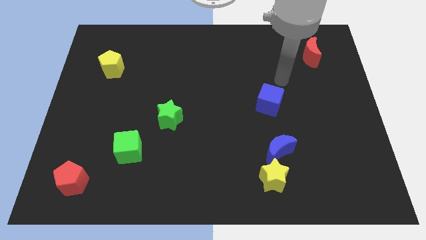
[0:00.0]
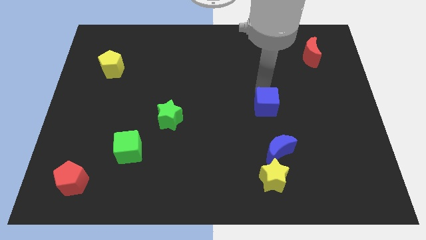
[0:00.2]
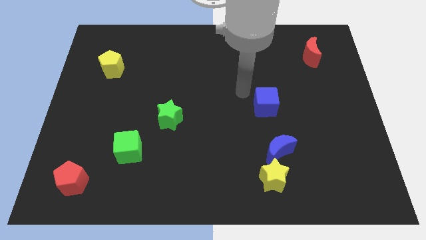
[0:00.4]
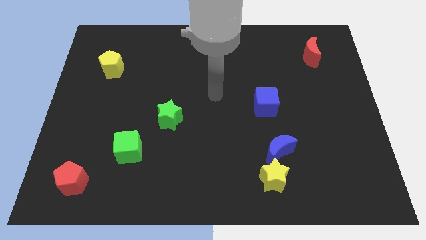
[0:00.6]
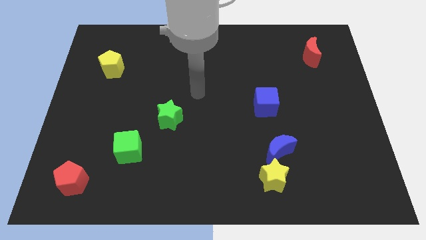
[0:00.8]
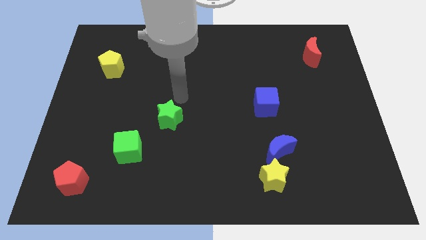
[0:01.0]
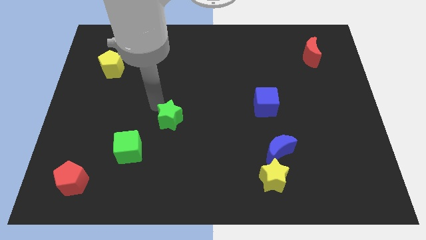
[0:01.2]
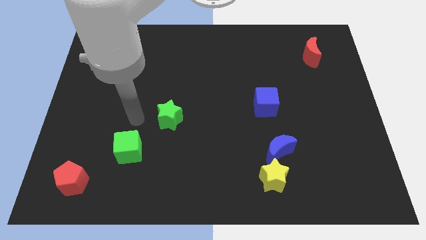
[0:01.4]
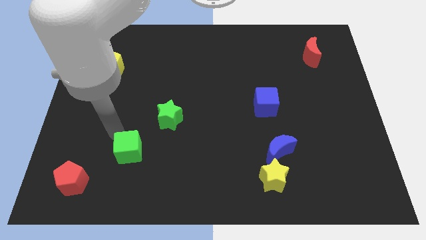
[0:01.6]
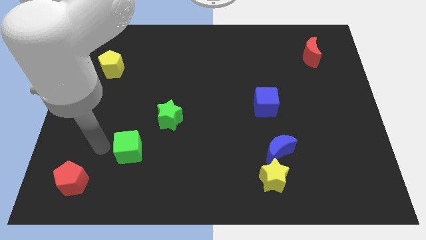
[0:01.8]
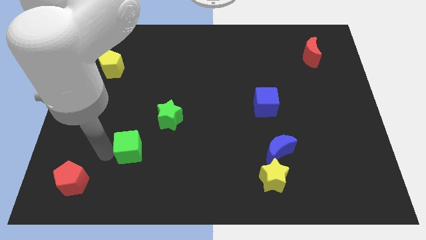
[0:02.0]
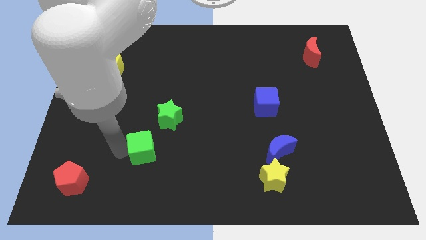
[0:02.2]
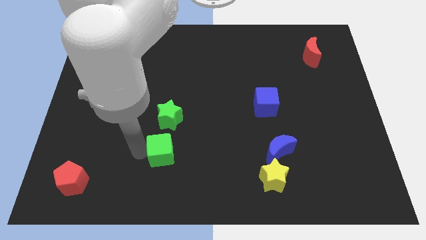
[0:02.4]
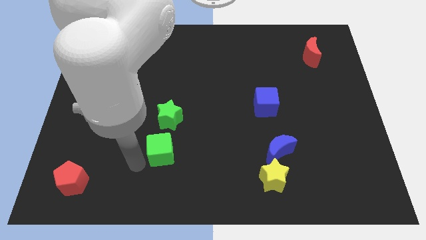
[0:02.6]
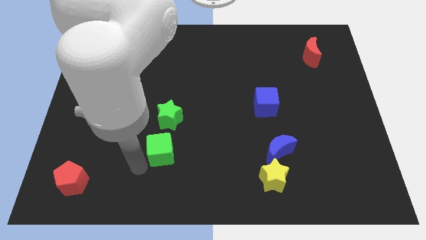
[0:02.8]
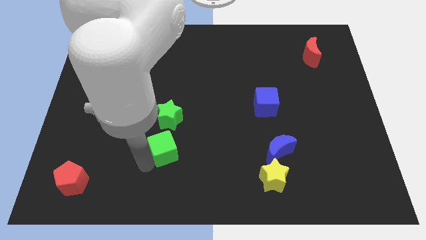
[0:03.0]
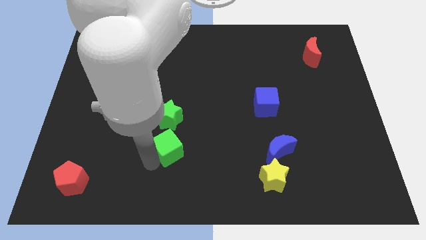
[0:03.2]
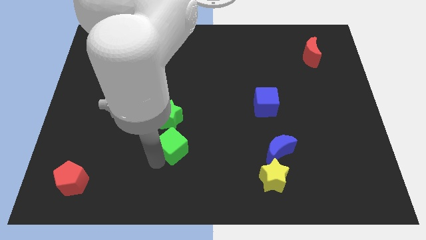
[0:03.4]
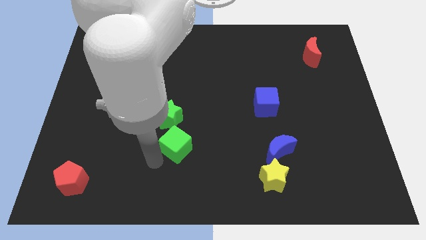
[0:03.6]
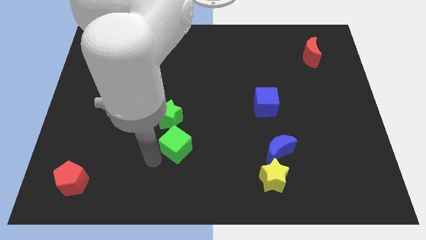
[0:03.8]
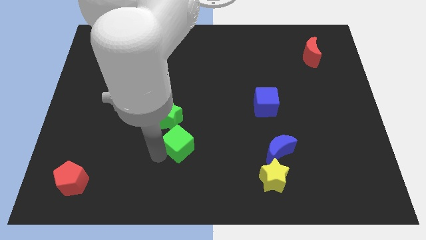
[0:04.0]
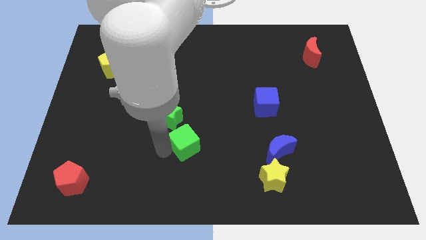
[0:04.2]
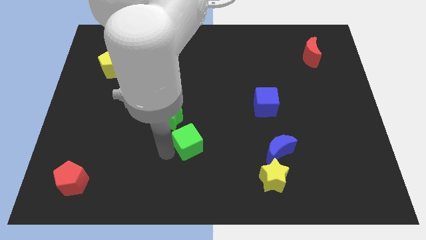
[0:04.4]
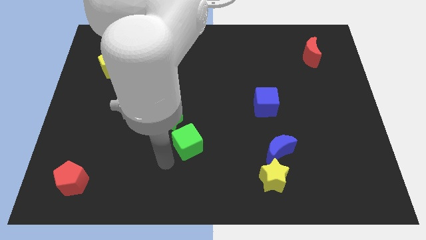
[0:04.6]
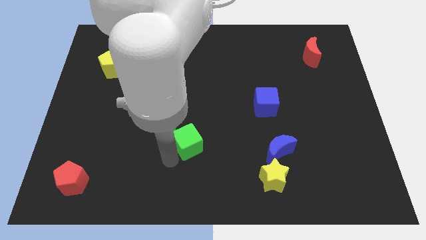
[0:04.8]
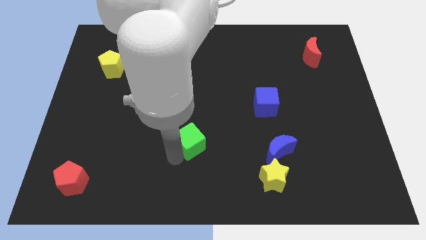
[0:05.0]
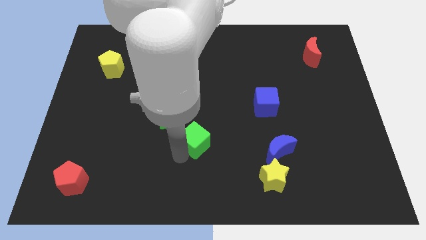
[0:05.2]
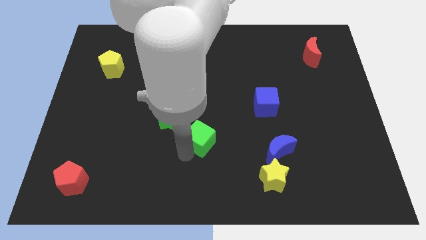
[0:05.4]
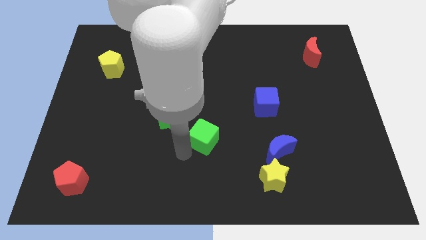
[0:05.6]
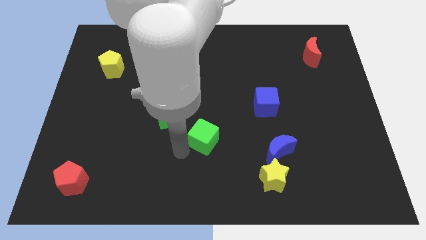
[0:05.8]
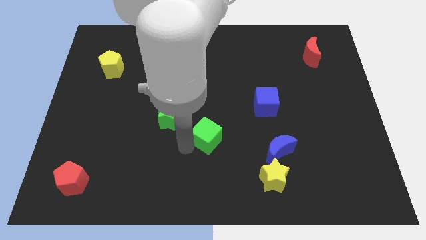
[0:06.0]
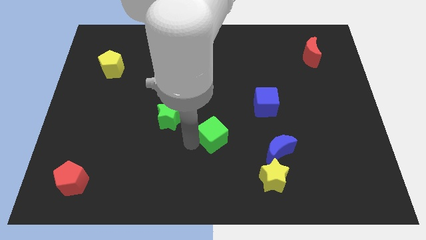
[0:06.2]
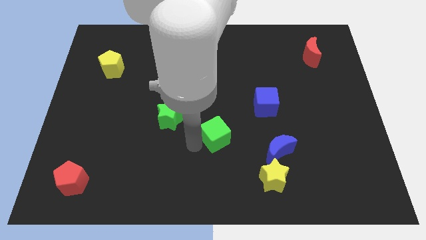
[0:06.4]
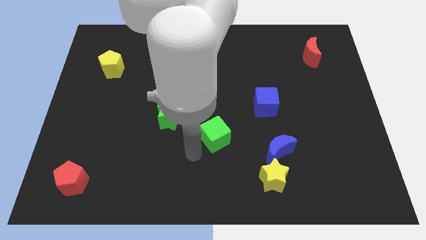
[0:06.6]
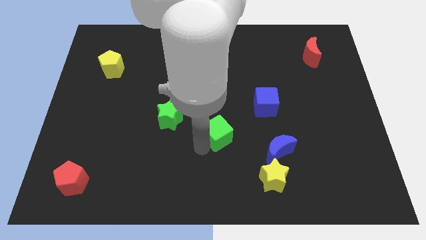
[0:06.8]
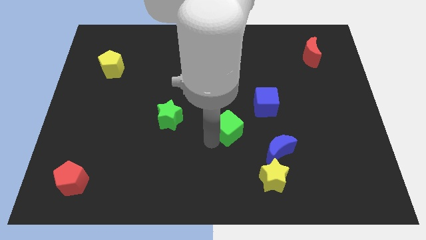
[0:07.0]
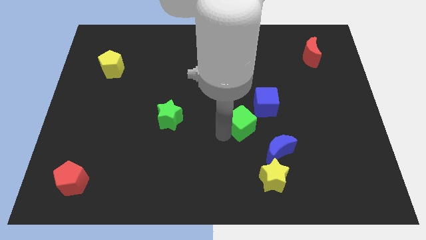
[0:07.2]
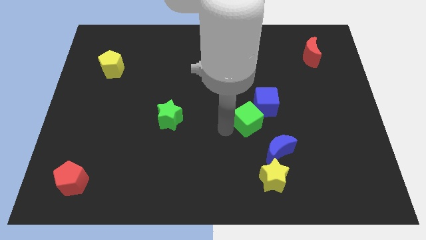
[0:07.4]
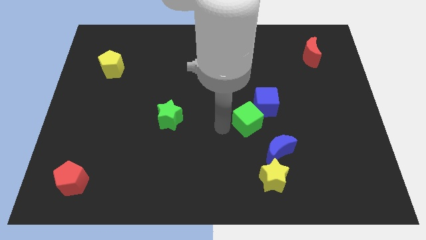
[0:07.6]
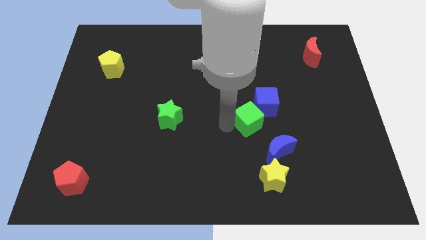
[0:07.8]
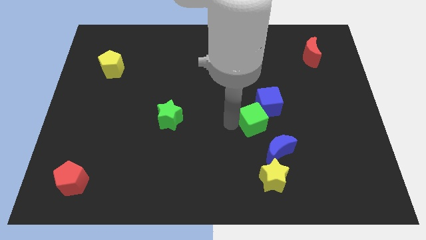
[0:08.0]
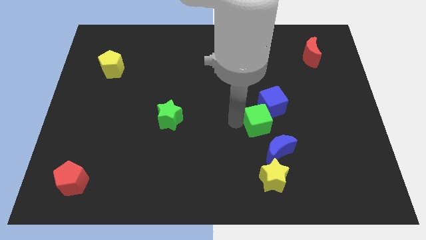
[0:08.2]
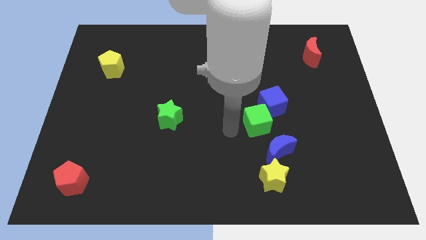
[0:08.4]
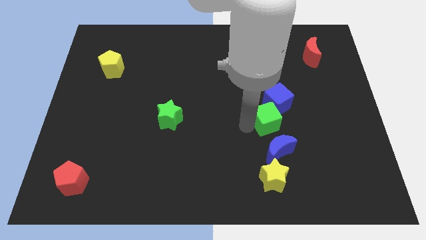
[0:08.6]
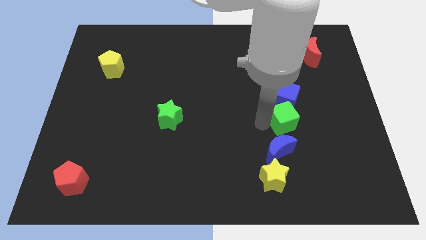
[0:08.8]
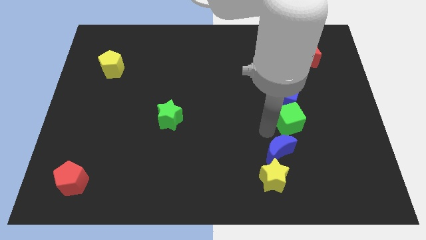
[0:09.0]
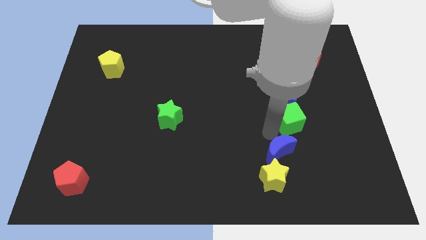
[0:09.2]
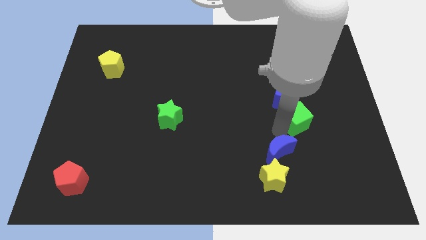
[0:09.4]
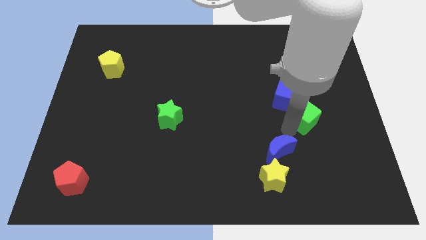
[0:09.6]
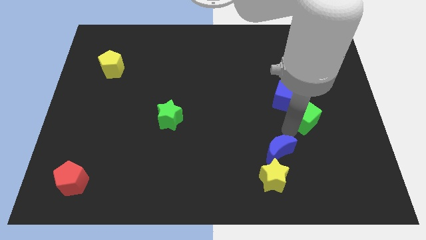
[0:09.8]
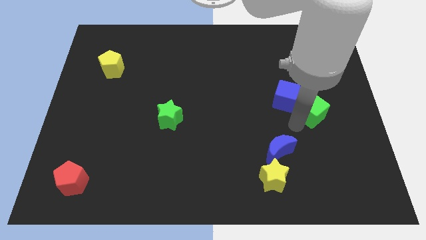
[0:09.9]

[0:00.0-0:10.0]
move the green cube to the right of the blue cube

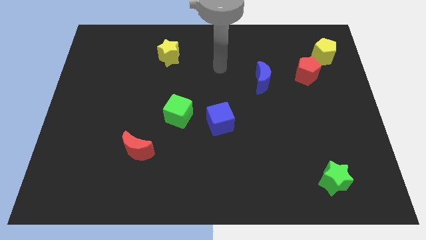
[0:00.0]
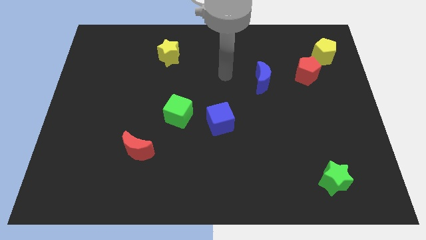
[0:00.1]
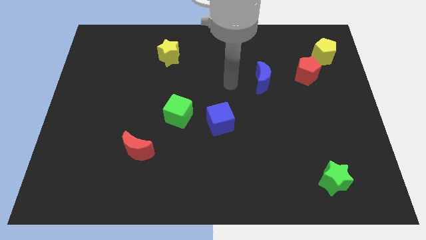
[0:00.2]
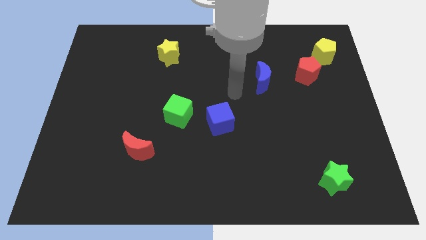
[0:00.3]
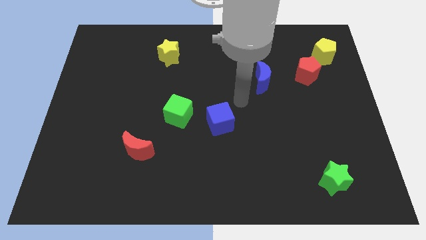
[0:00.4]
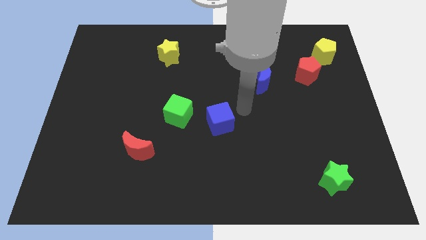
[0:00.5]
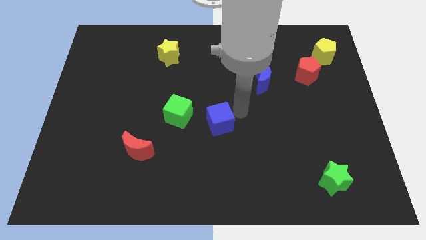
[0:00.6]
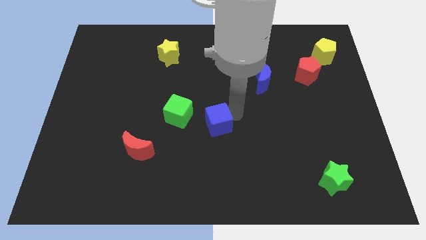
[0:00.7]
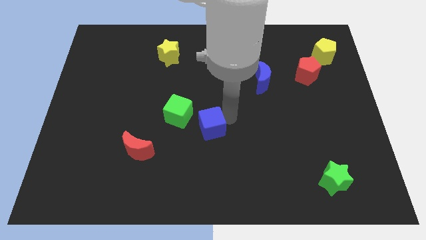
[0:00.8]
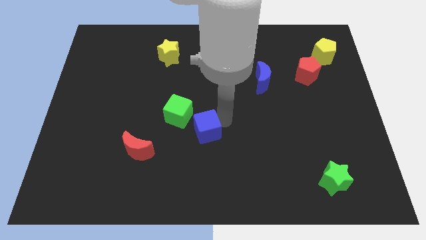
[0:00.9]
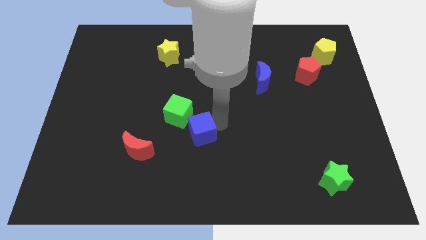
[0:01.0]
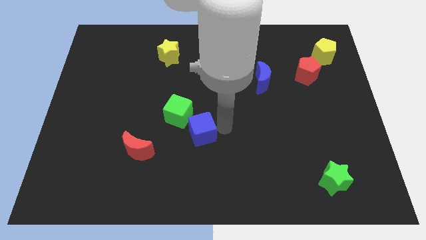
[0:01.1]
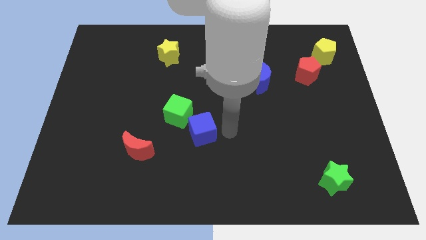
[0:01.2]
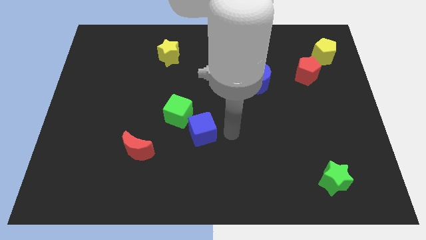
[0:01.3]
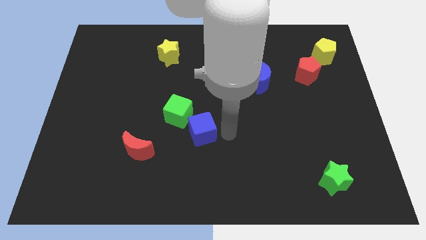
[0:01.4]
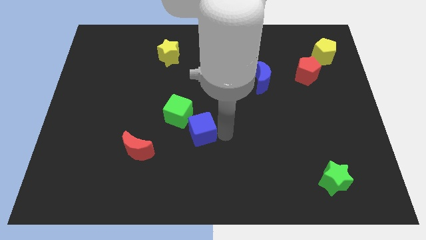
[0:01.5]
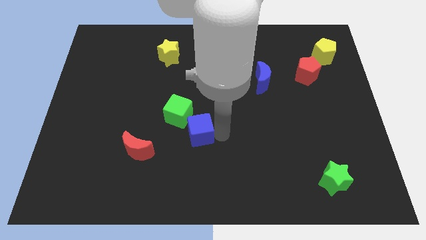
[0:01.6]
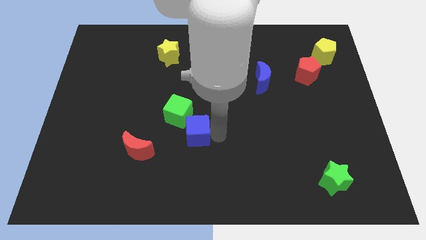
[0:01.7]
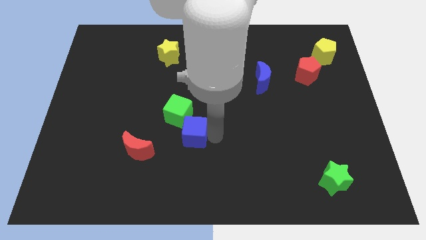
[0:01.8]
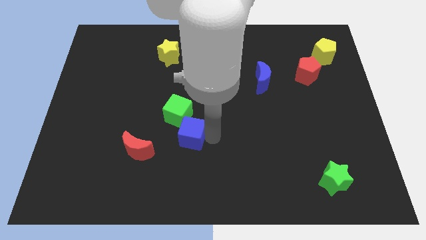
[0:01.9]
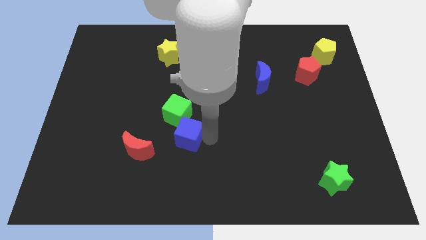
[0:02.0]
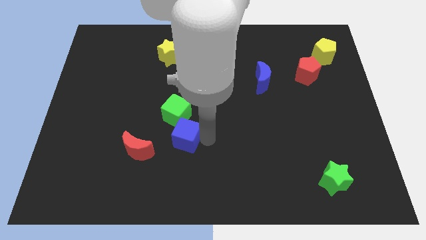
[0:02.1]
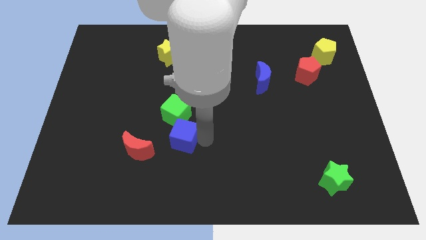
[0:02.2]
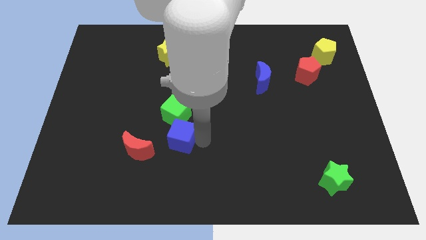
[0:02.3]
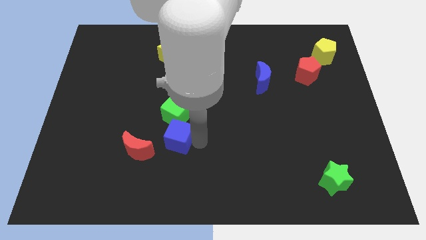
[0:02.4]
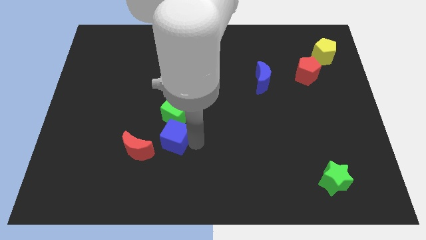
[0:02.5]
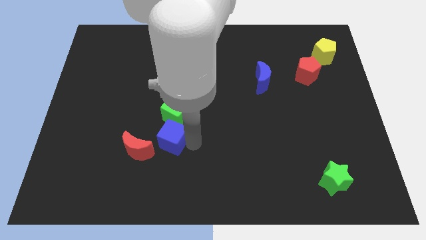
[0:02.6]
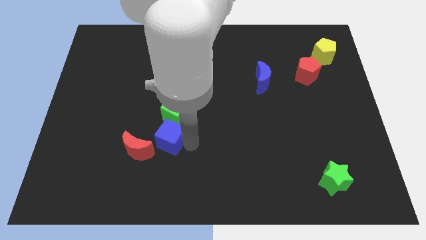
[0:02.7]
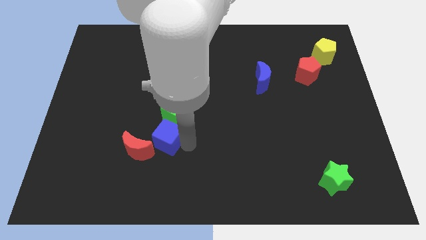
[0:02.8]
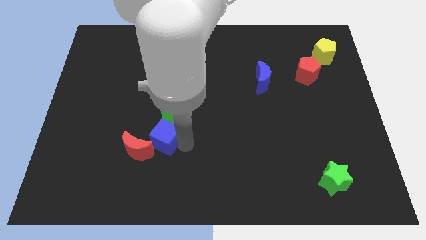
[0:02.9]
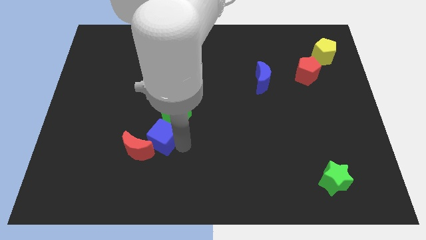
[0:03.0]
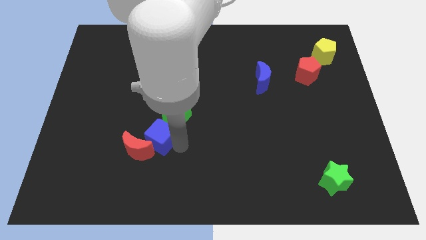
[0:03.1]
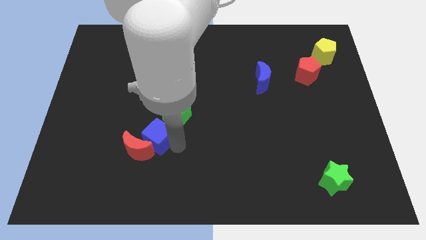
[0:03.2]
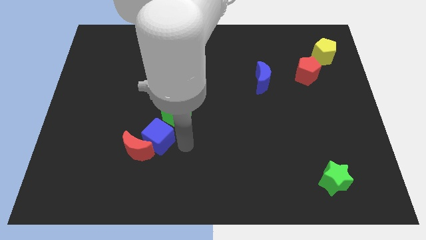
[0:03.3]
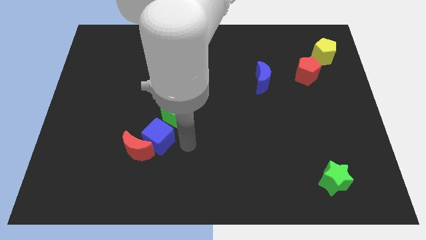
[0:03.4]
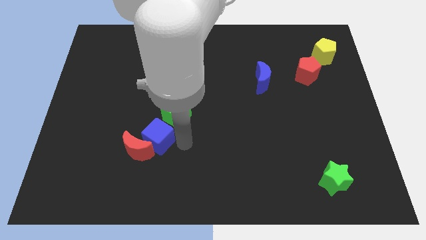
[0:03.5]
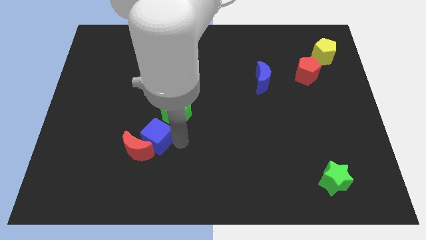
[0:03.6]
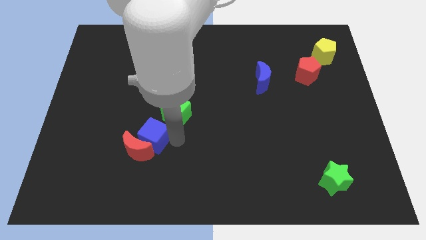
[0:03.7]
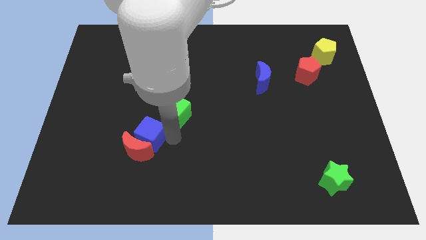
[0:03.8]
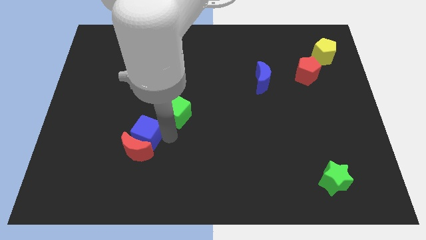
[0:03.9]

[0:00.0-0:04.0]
move the blue cube diagonally up and to the left of the red moon
